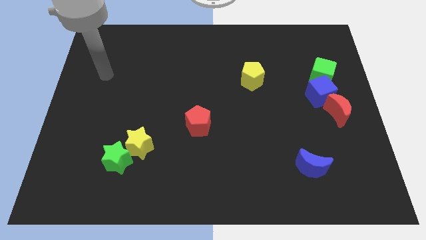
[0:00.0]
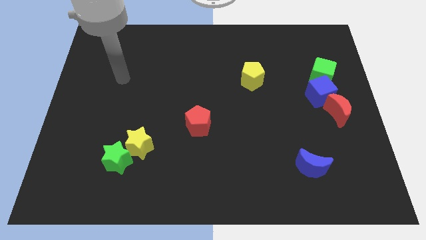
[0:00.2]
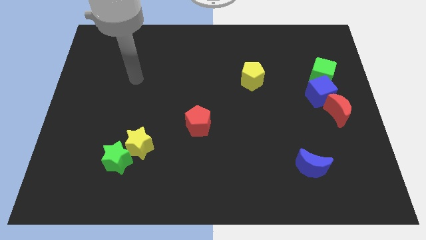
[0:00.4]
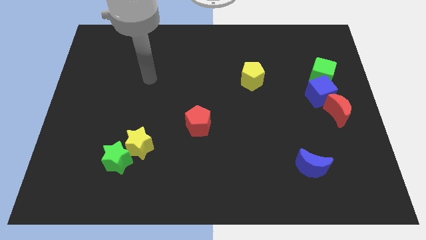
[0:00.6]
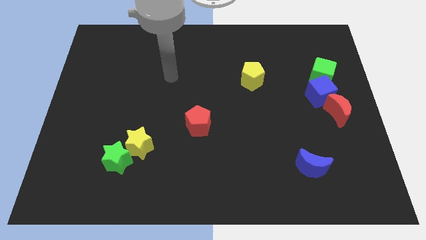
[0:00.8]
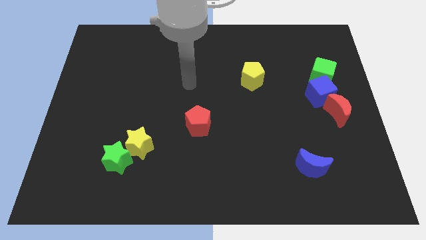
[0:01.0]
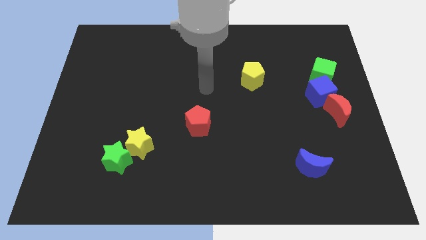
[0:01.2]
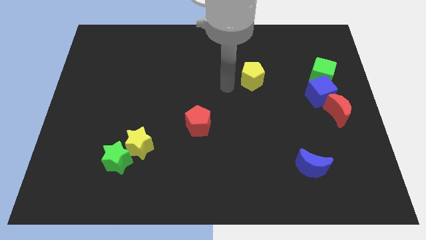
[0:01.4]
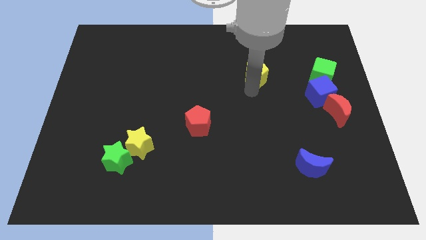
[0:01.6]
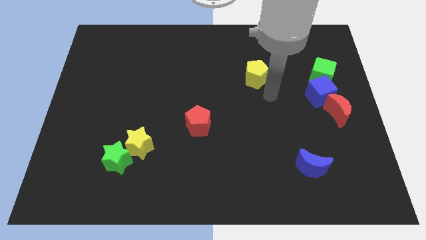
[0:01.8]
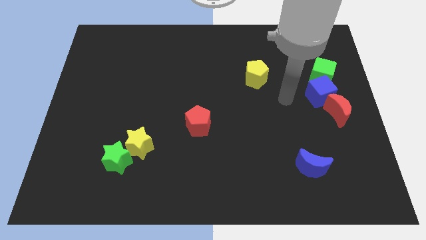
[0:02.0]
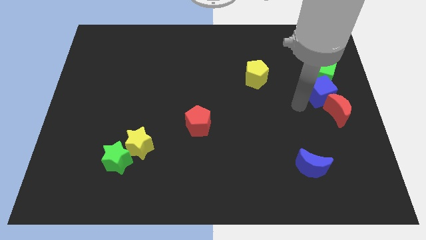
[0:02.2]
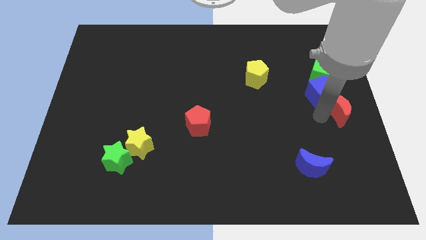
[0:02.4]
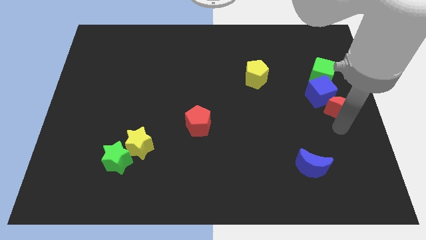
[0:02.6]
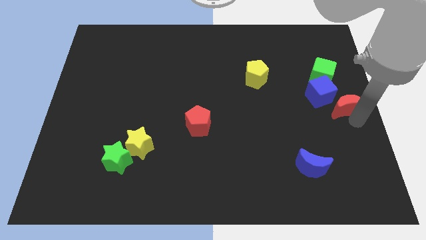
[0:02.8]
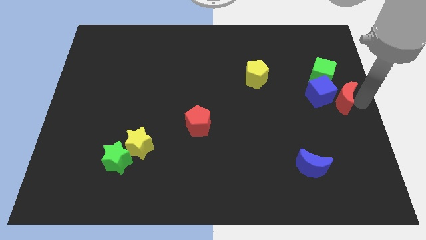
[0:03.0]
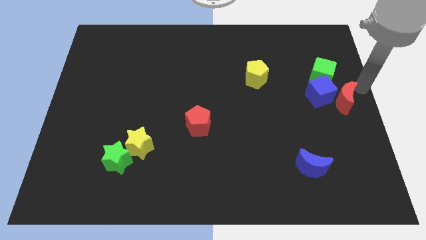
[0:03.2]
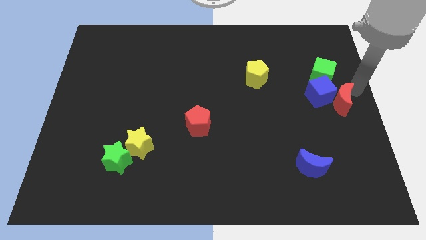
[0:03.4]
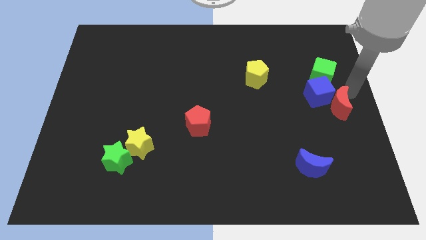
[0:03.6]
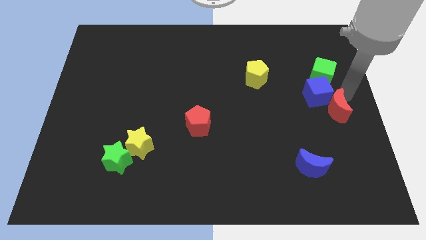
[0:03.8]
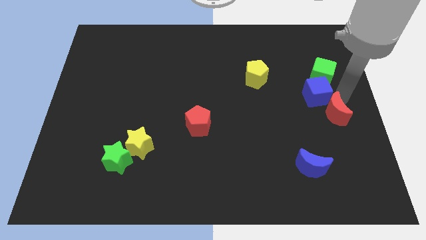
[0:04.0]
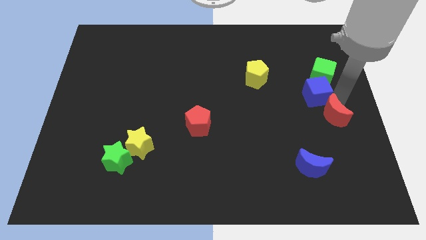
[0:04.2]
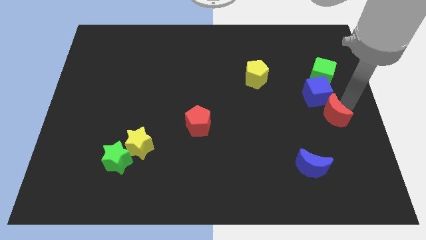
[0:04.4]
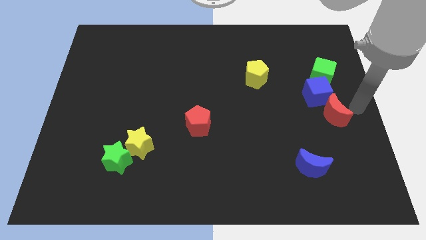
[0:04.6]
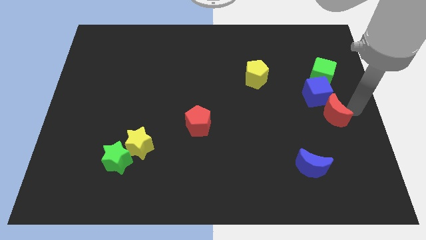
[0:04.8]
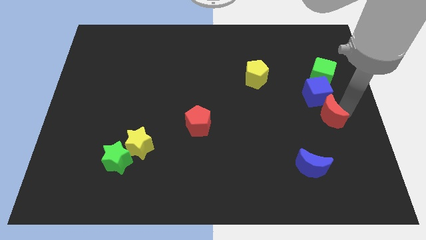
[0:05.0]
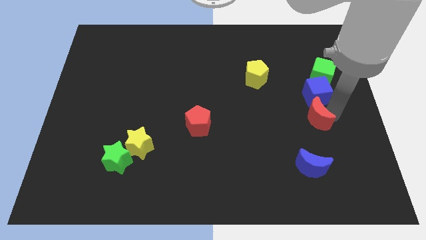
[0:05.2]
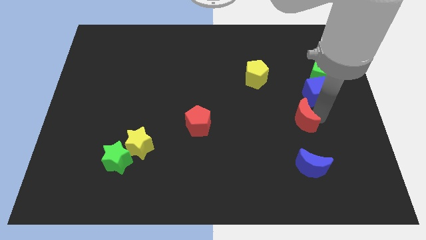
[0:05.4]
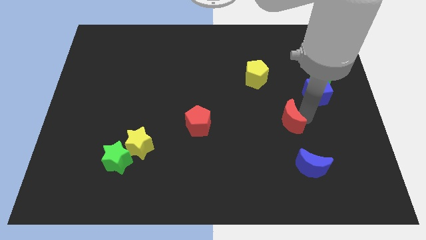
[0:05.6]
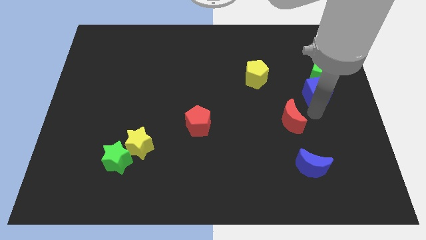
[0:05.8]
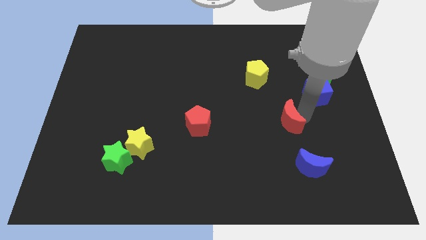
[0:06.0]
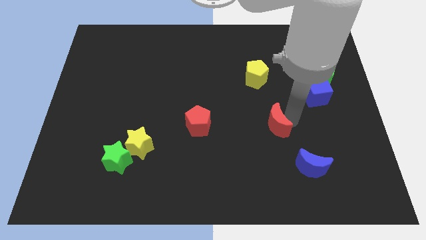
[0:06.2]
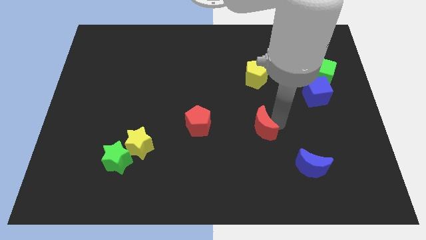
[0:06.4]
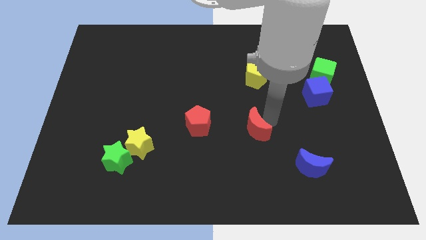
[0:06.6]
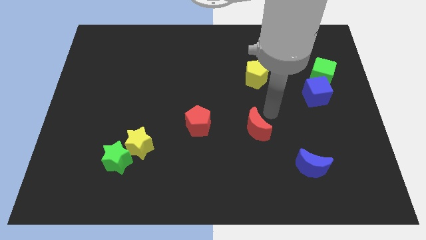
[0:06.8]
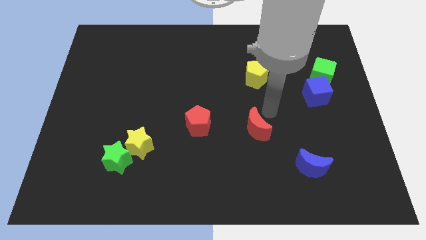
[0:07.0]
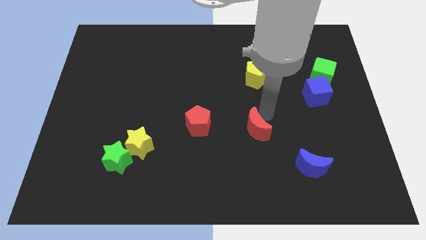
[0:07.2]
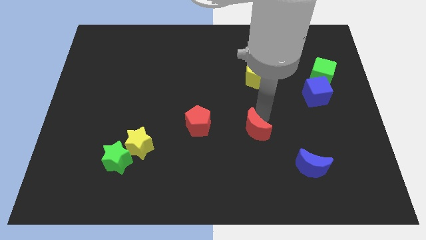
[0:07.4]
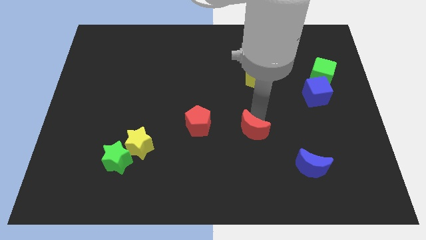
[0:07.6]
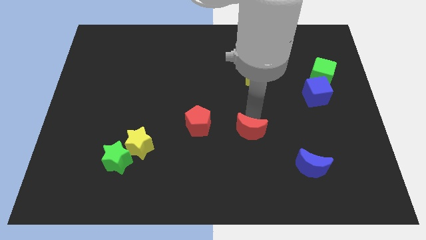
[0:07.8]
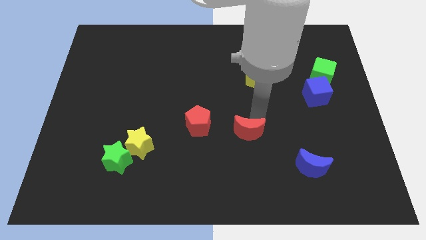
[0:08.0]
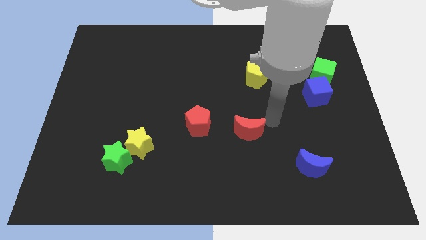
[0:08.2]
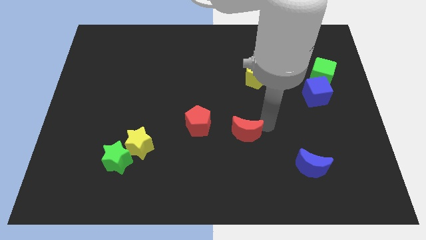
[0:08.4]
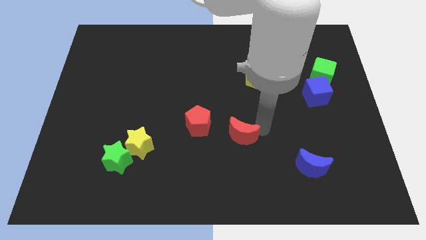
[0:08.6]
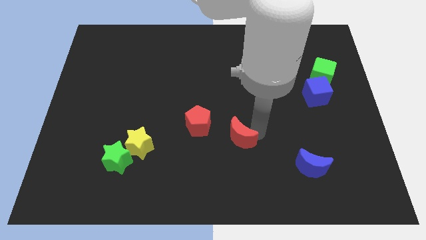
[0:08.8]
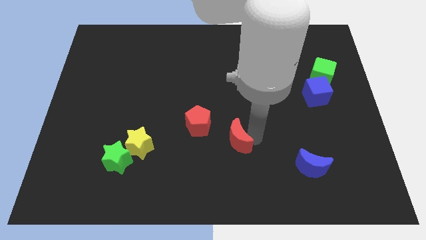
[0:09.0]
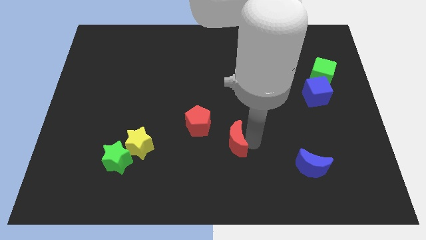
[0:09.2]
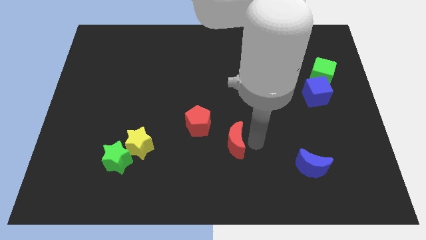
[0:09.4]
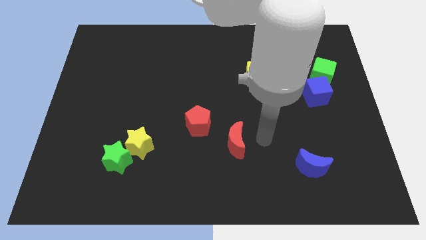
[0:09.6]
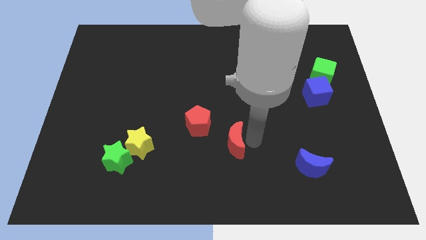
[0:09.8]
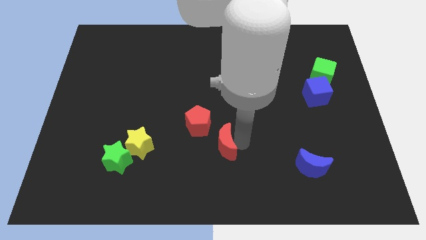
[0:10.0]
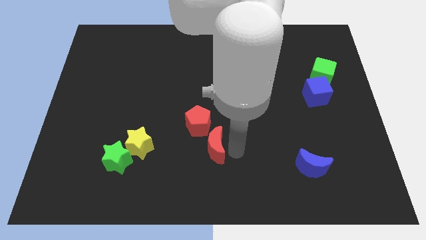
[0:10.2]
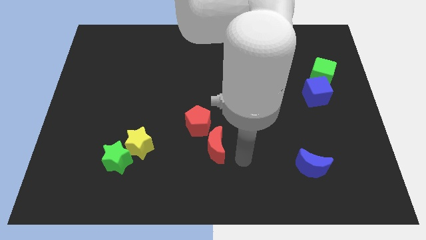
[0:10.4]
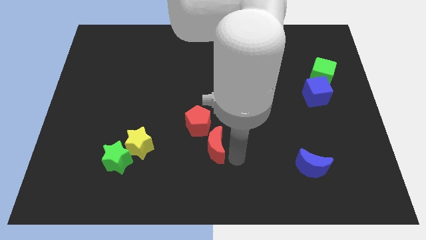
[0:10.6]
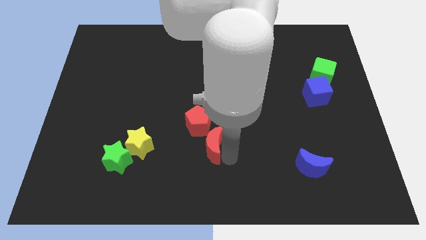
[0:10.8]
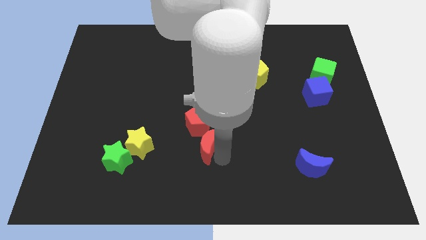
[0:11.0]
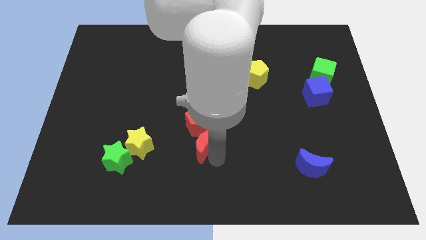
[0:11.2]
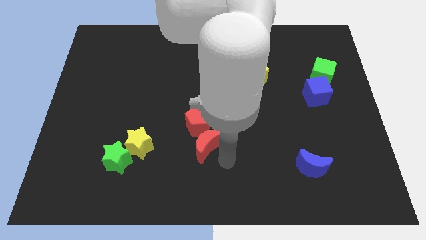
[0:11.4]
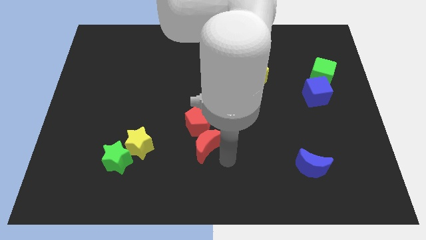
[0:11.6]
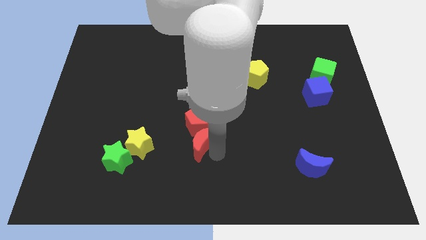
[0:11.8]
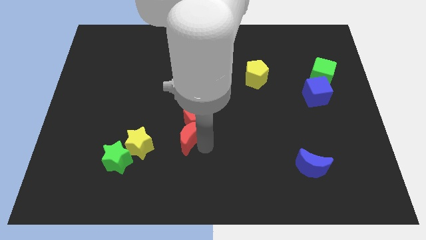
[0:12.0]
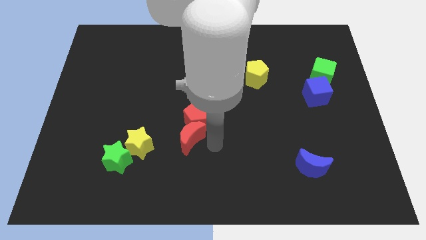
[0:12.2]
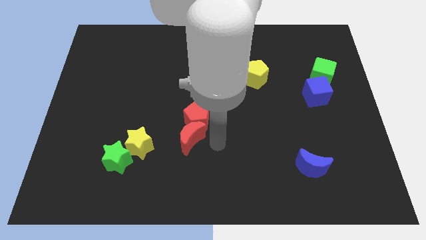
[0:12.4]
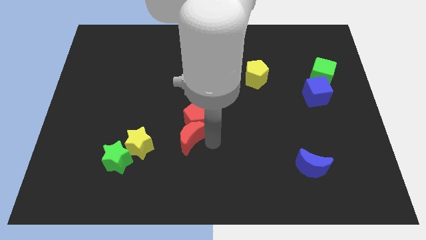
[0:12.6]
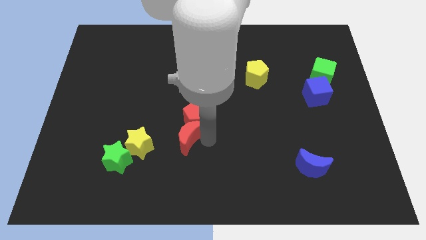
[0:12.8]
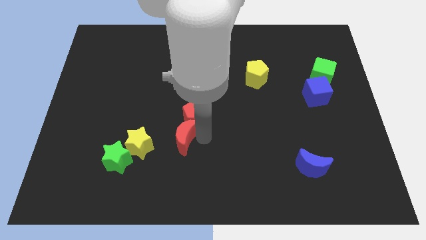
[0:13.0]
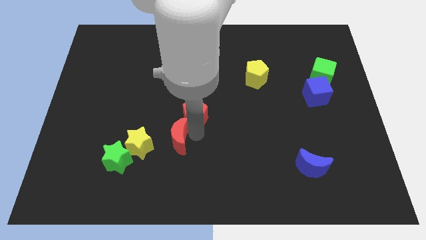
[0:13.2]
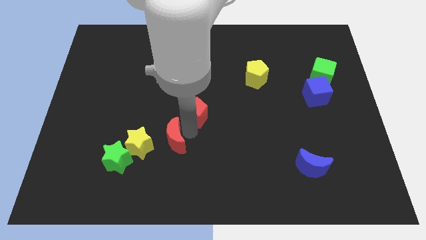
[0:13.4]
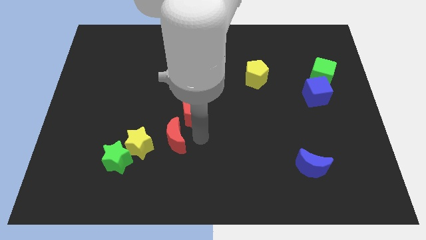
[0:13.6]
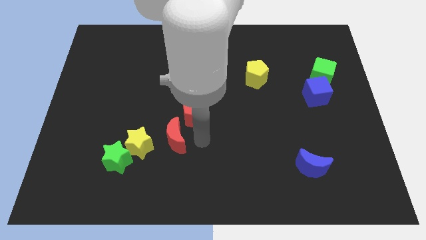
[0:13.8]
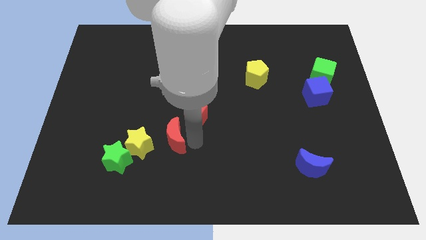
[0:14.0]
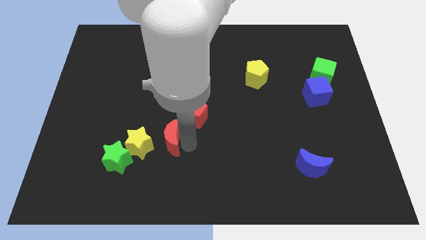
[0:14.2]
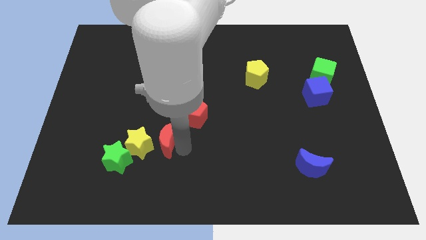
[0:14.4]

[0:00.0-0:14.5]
push the red moon to the top right side of the green star
